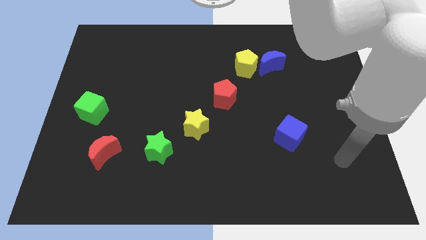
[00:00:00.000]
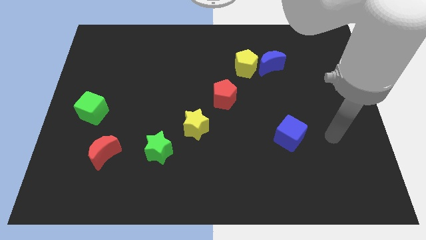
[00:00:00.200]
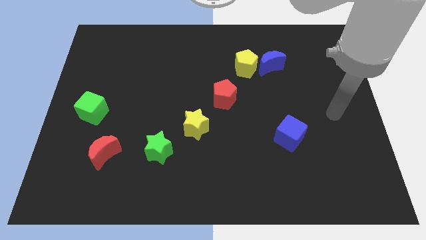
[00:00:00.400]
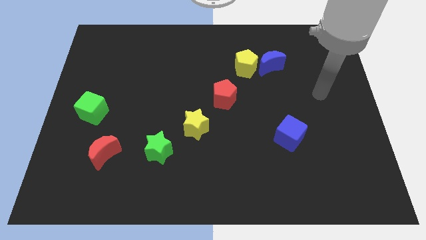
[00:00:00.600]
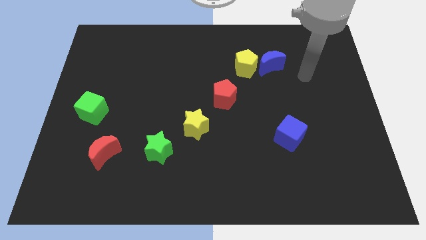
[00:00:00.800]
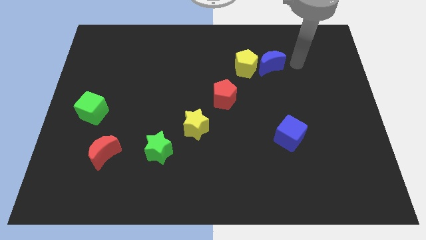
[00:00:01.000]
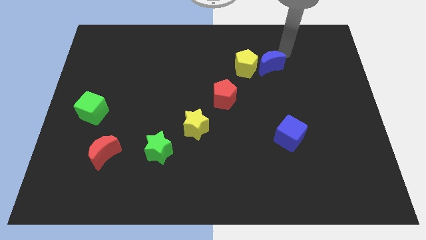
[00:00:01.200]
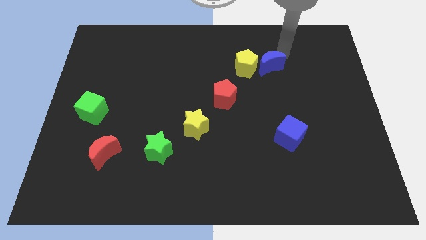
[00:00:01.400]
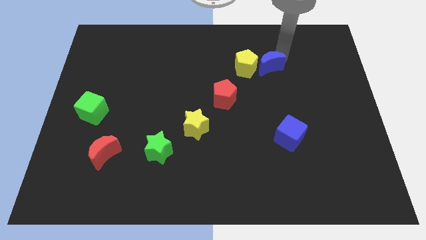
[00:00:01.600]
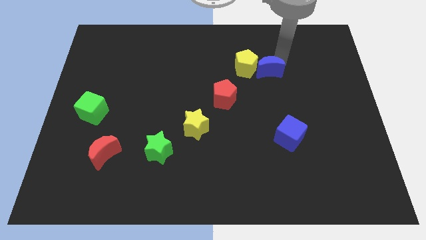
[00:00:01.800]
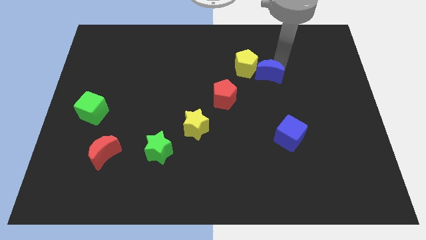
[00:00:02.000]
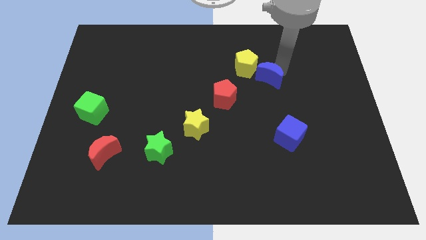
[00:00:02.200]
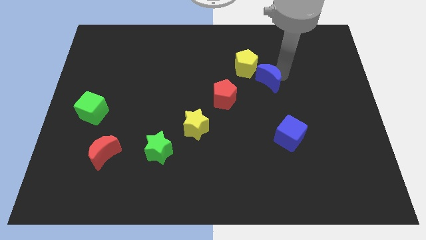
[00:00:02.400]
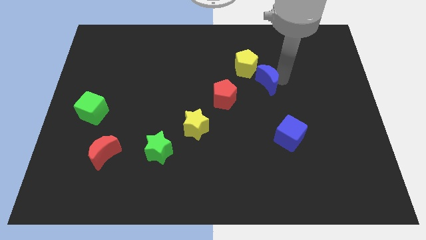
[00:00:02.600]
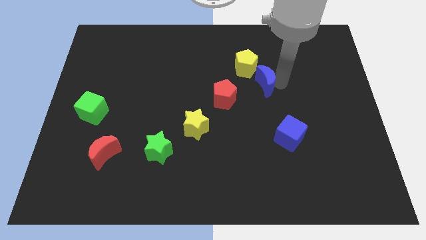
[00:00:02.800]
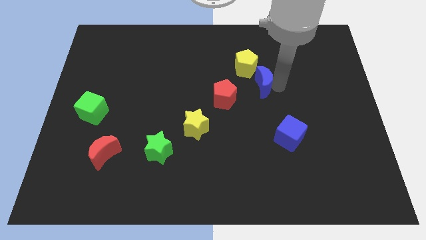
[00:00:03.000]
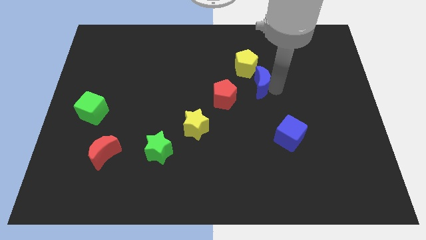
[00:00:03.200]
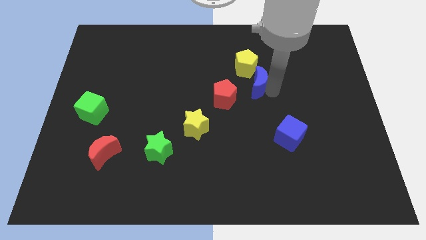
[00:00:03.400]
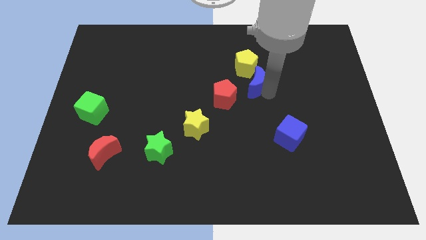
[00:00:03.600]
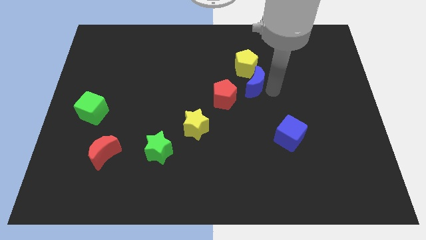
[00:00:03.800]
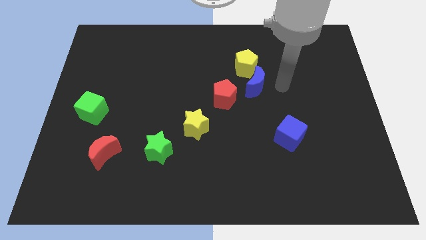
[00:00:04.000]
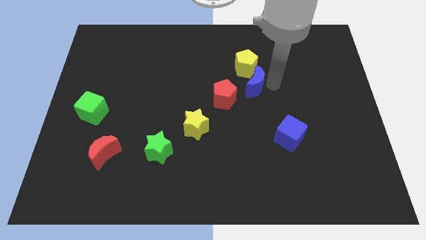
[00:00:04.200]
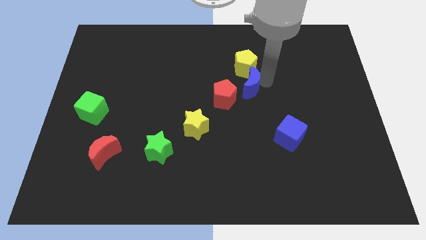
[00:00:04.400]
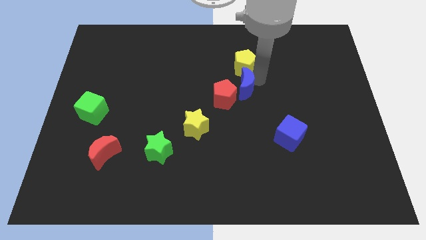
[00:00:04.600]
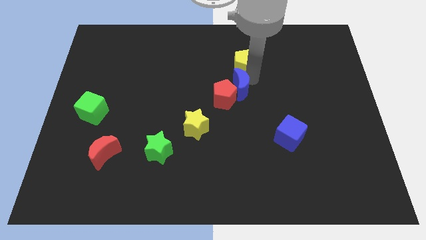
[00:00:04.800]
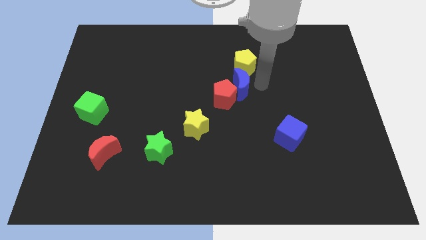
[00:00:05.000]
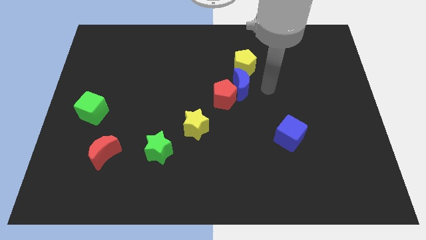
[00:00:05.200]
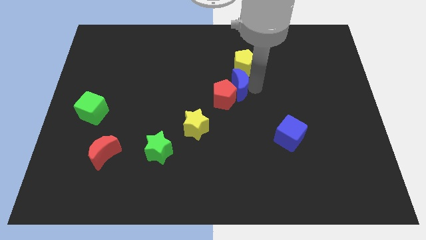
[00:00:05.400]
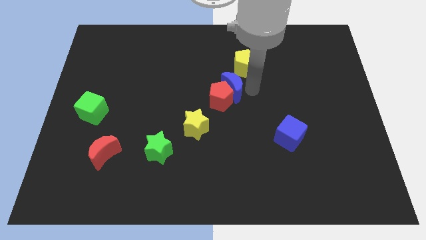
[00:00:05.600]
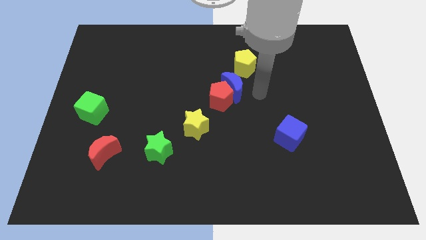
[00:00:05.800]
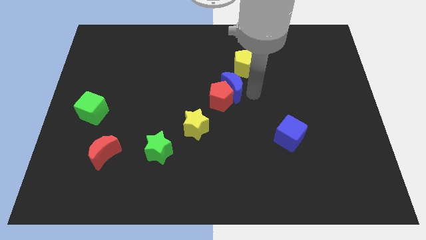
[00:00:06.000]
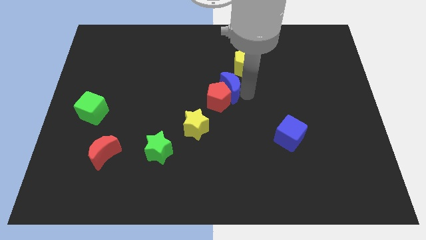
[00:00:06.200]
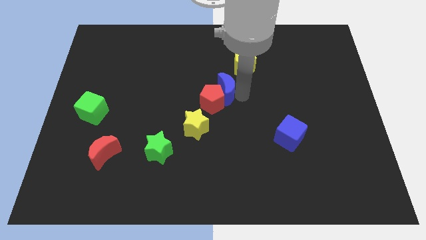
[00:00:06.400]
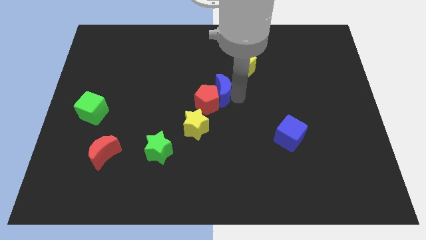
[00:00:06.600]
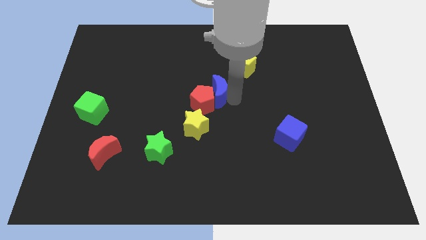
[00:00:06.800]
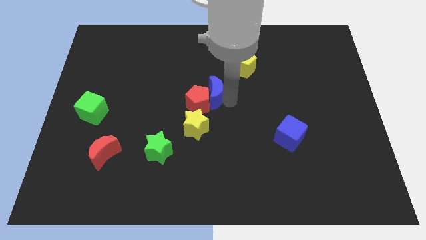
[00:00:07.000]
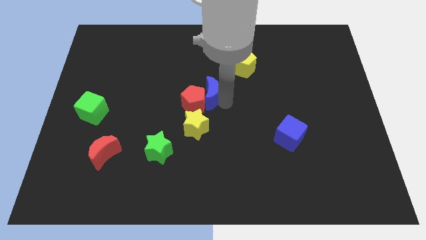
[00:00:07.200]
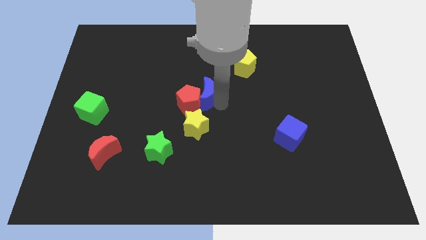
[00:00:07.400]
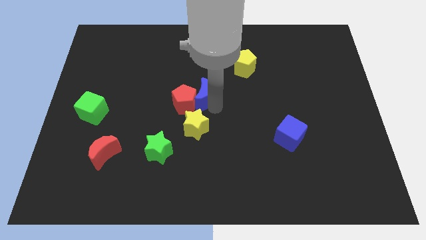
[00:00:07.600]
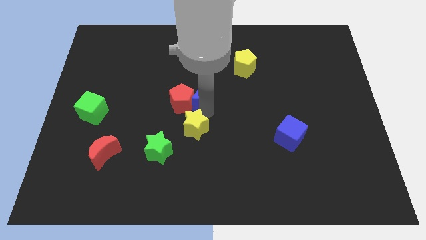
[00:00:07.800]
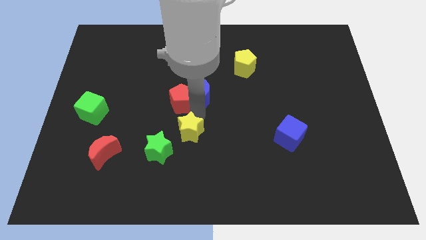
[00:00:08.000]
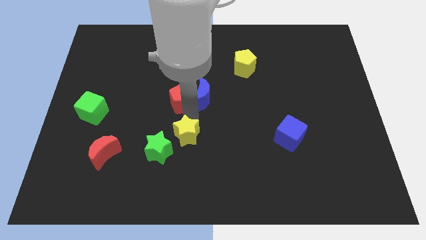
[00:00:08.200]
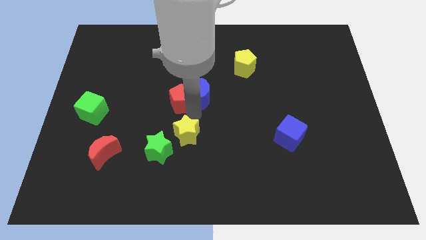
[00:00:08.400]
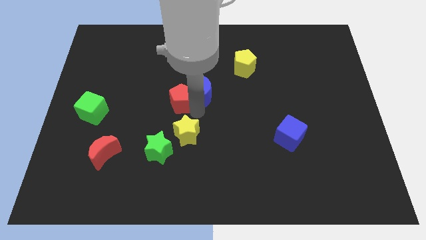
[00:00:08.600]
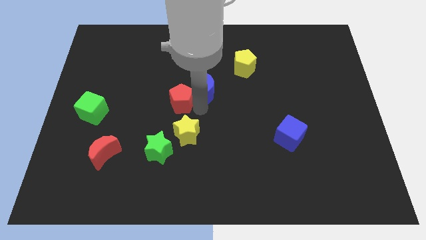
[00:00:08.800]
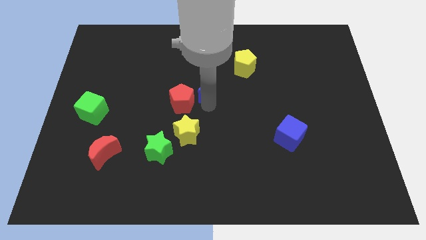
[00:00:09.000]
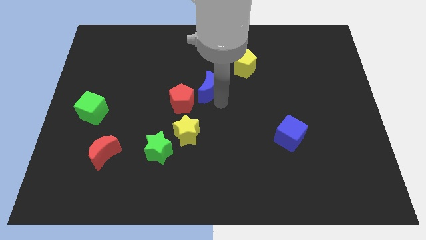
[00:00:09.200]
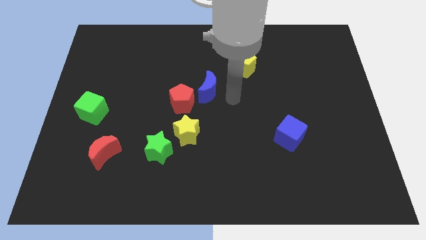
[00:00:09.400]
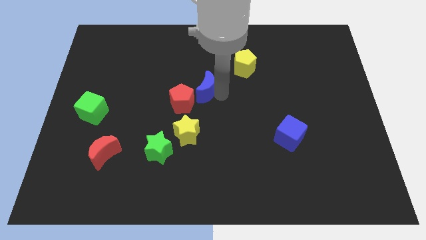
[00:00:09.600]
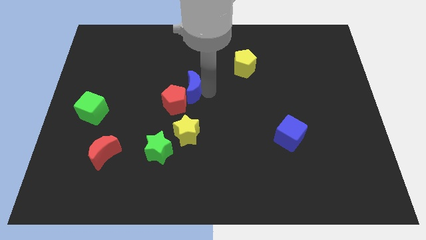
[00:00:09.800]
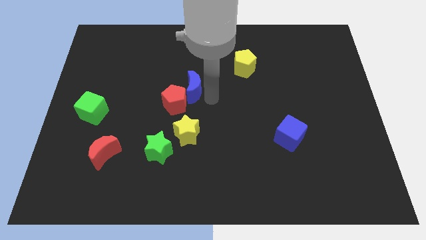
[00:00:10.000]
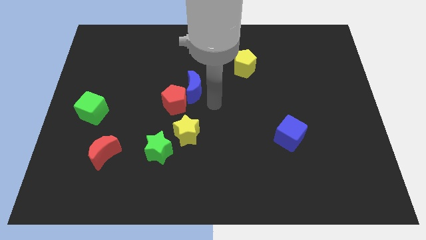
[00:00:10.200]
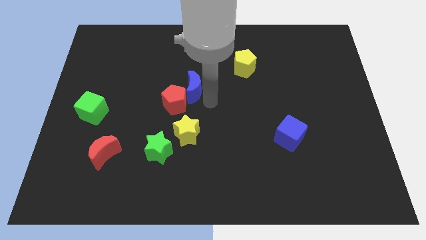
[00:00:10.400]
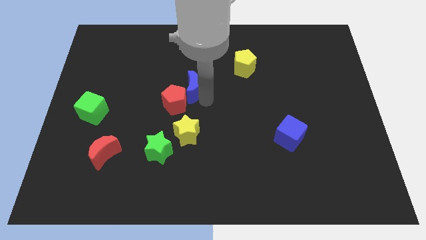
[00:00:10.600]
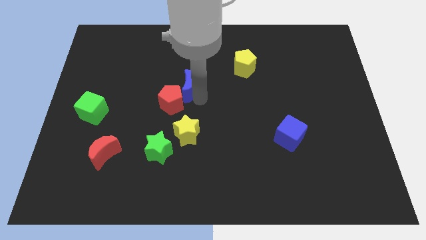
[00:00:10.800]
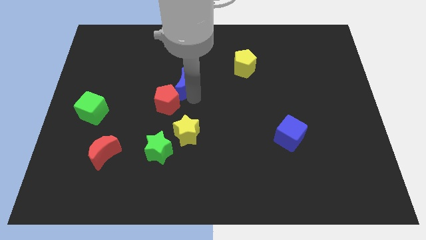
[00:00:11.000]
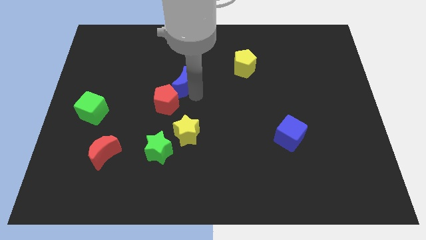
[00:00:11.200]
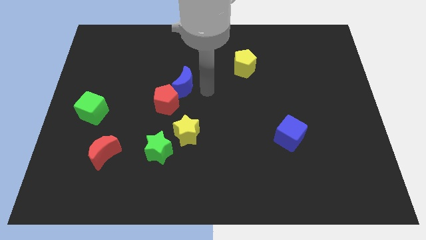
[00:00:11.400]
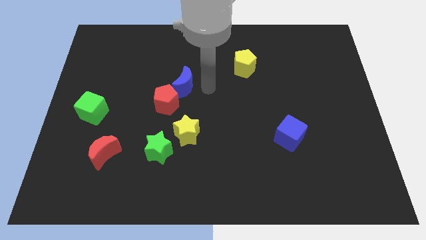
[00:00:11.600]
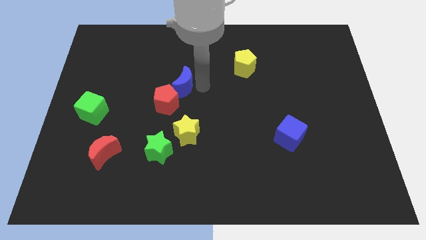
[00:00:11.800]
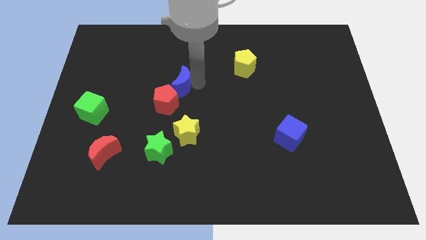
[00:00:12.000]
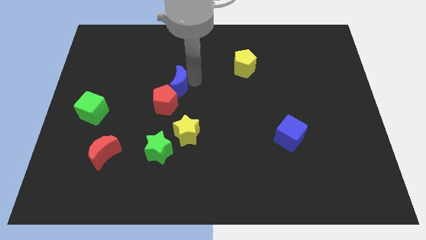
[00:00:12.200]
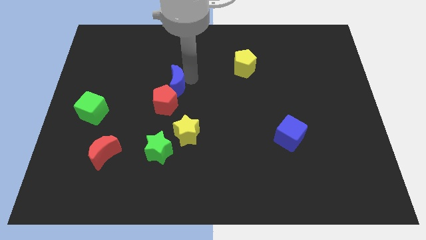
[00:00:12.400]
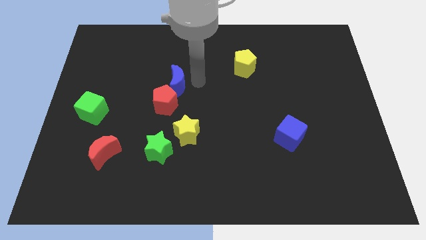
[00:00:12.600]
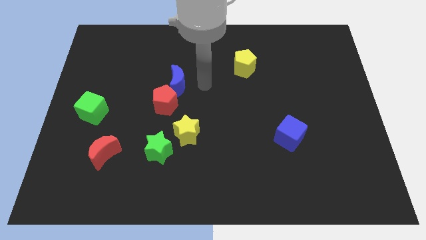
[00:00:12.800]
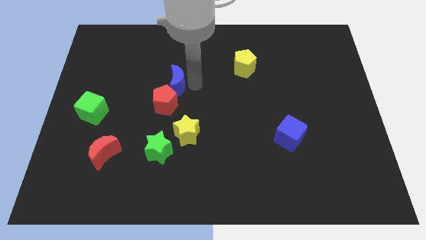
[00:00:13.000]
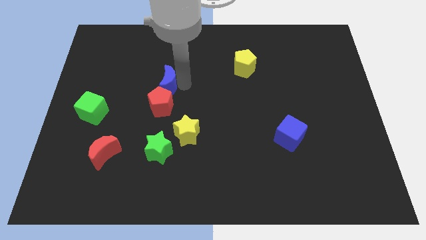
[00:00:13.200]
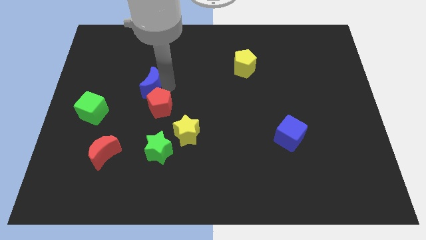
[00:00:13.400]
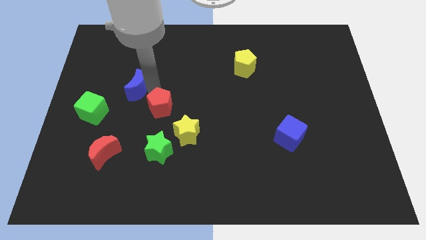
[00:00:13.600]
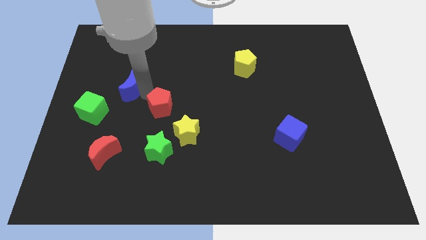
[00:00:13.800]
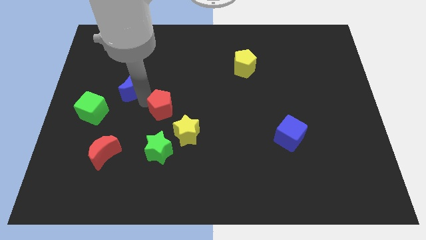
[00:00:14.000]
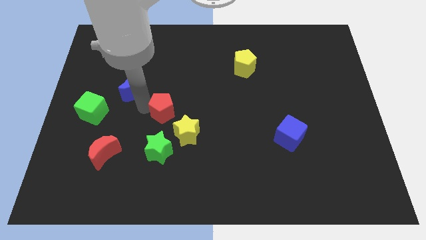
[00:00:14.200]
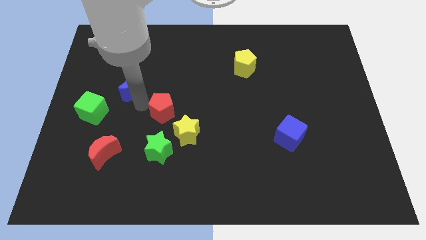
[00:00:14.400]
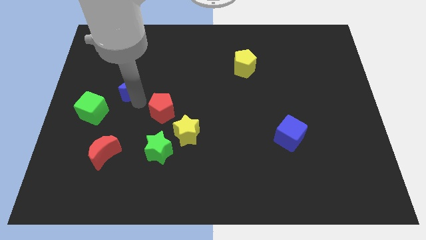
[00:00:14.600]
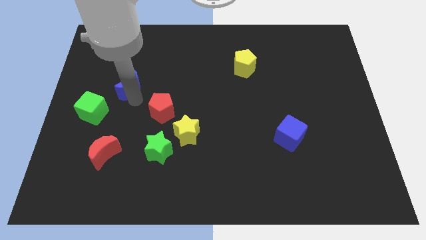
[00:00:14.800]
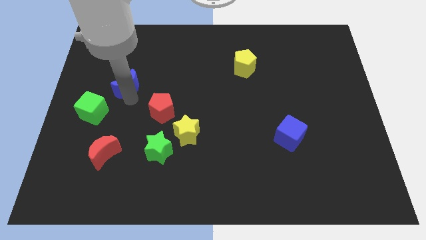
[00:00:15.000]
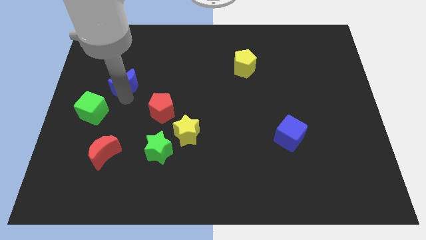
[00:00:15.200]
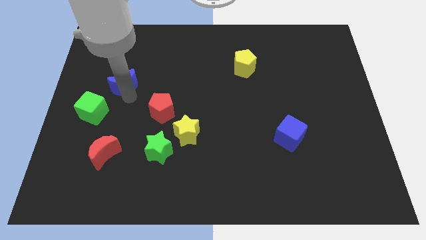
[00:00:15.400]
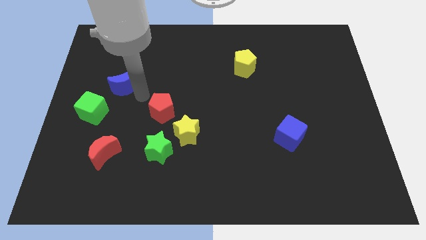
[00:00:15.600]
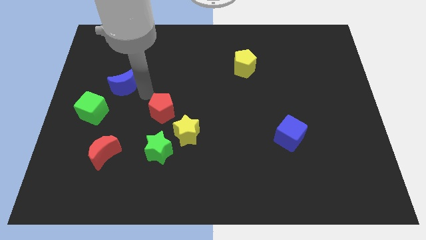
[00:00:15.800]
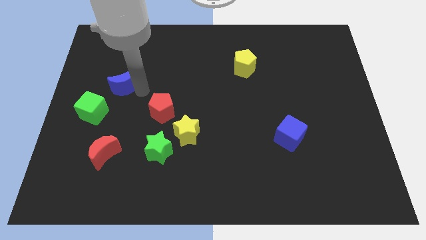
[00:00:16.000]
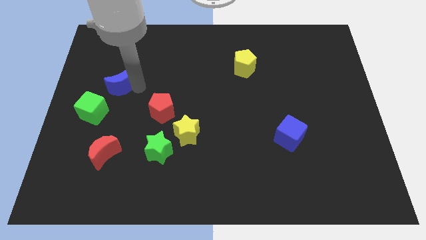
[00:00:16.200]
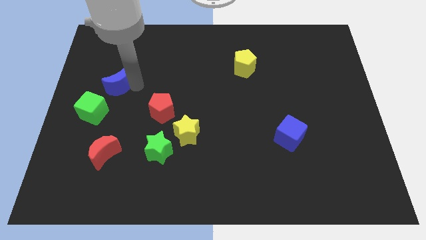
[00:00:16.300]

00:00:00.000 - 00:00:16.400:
move the blue moon to the top side of the green cube
